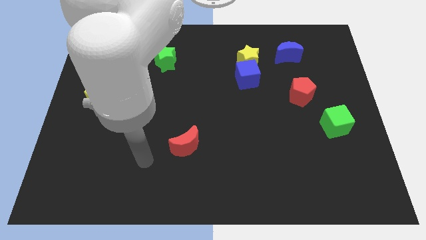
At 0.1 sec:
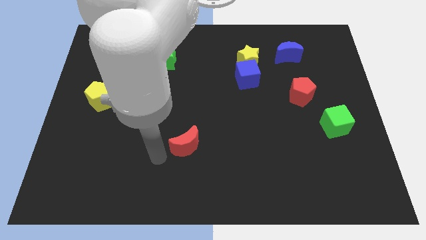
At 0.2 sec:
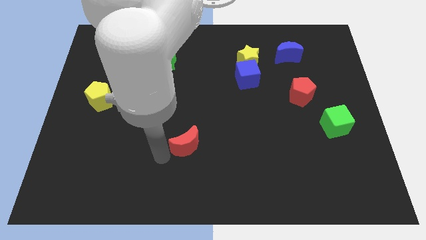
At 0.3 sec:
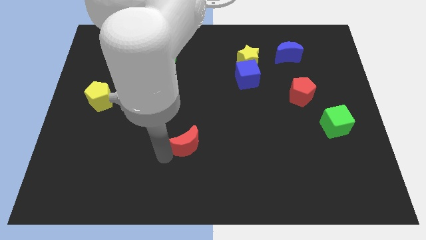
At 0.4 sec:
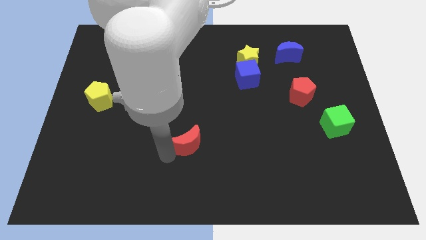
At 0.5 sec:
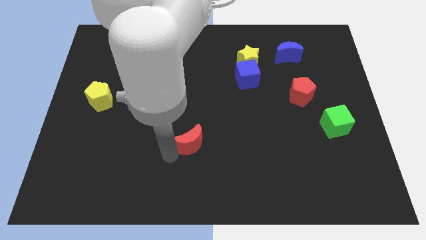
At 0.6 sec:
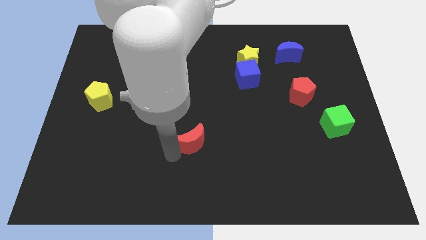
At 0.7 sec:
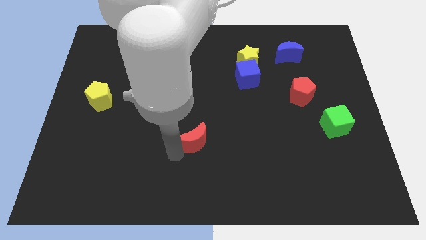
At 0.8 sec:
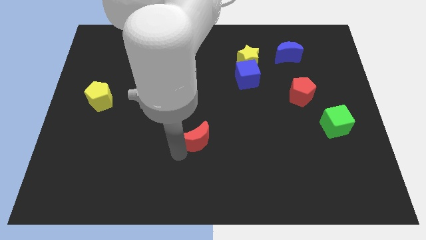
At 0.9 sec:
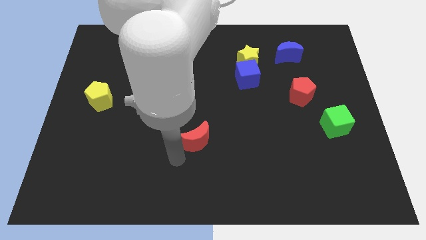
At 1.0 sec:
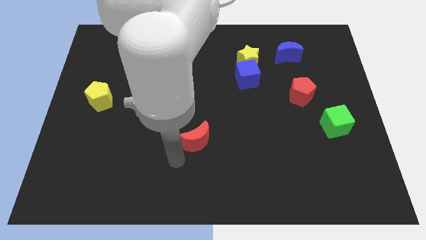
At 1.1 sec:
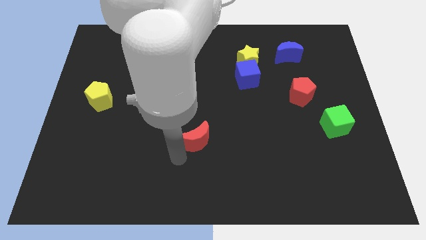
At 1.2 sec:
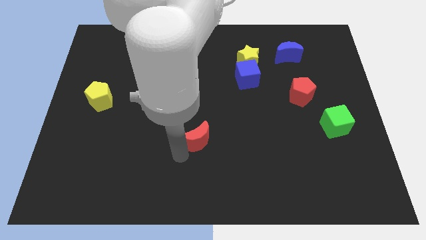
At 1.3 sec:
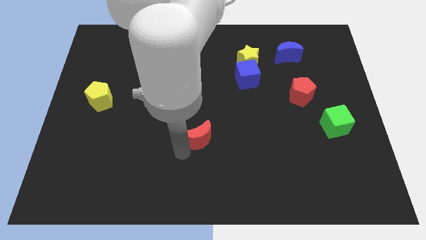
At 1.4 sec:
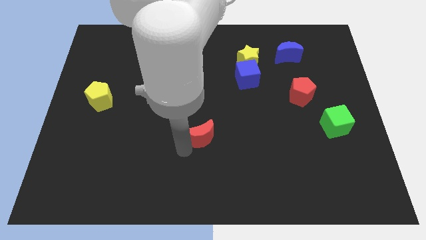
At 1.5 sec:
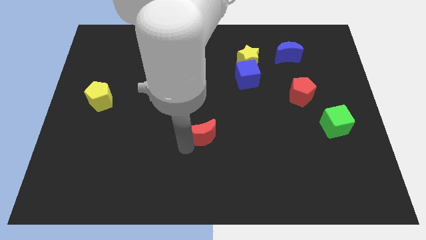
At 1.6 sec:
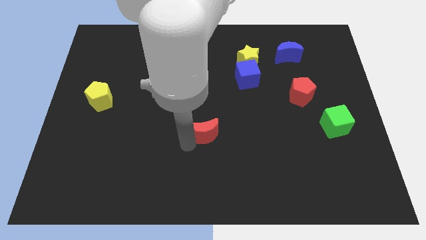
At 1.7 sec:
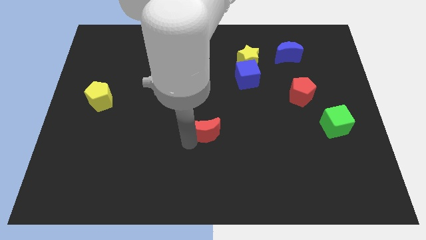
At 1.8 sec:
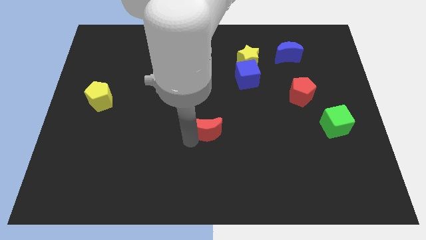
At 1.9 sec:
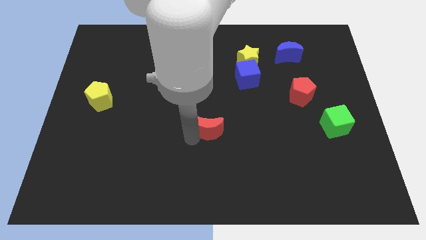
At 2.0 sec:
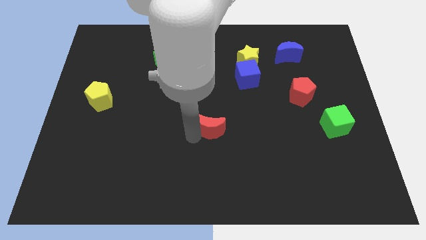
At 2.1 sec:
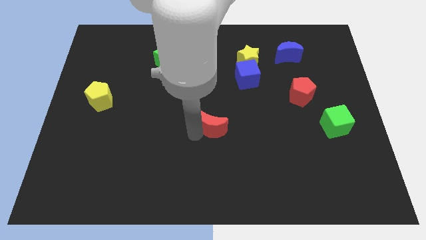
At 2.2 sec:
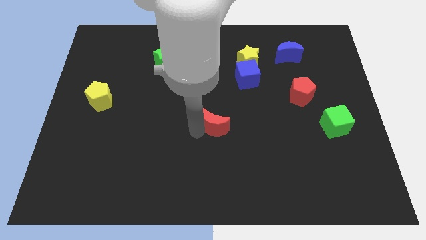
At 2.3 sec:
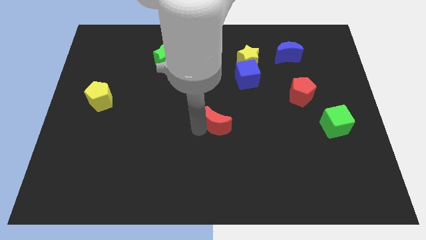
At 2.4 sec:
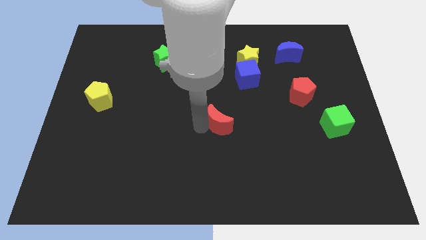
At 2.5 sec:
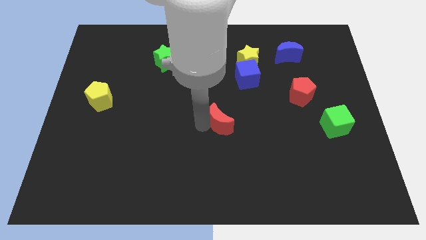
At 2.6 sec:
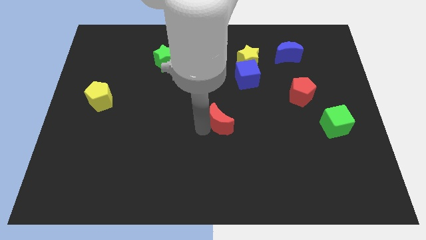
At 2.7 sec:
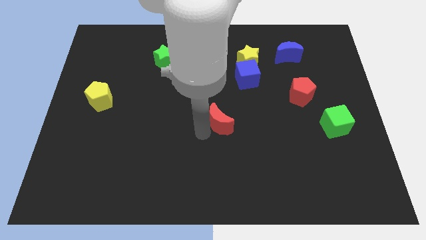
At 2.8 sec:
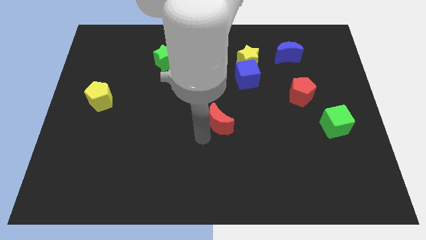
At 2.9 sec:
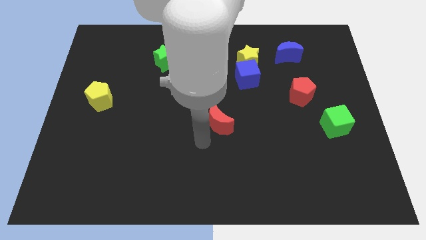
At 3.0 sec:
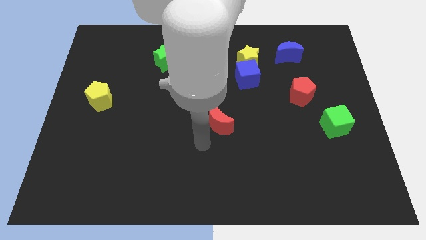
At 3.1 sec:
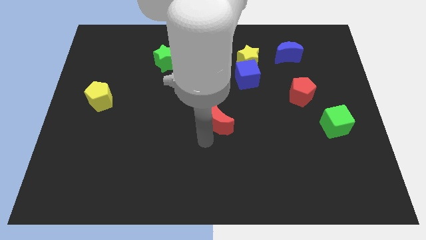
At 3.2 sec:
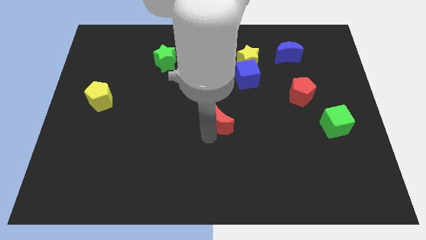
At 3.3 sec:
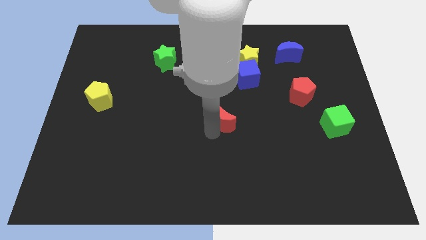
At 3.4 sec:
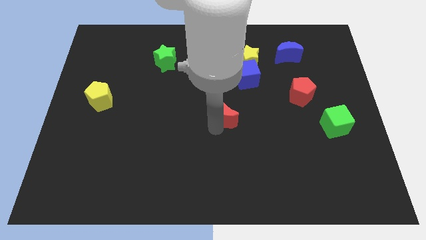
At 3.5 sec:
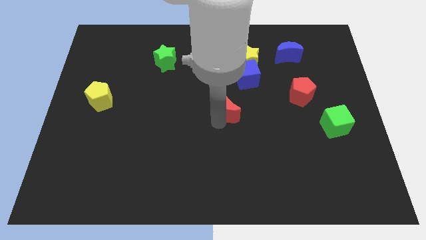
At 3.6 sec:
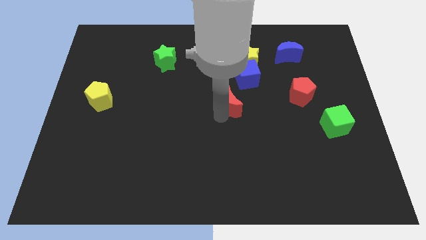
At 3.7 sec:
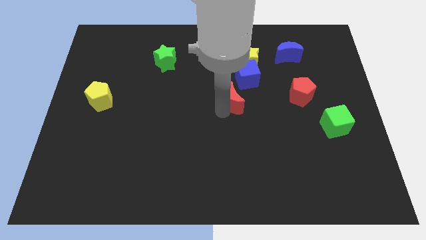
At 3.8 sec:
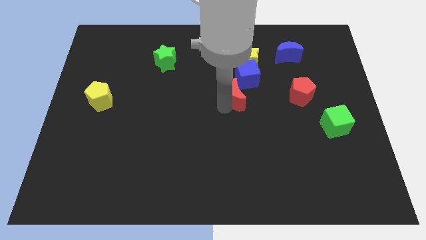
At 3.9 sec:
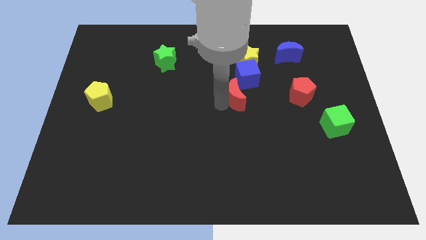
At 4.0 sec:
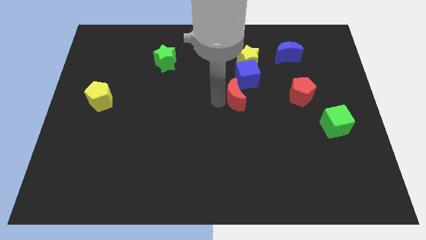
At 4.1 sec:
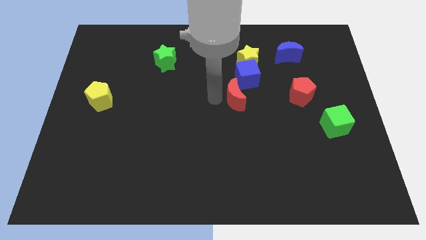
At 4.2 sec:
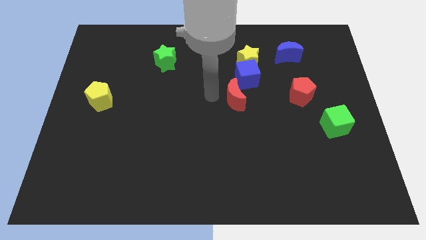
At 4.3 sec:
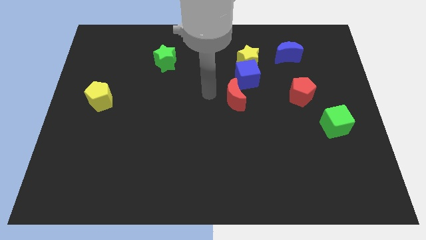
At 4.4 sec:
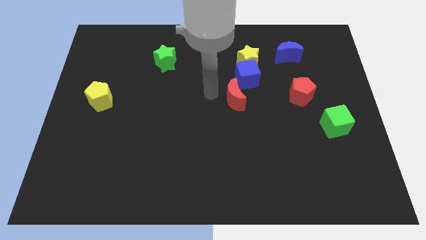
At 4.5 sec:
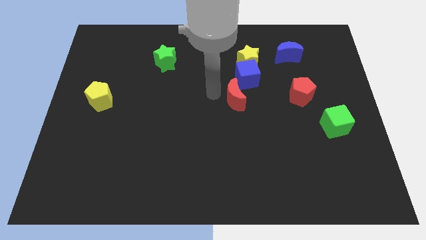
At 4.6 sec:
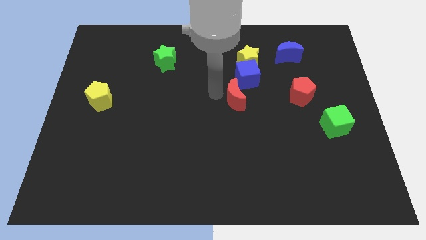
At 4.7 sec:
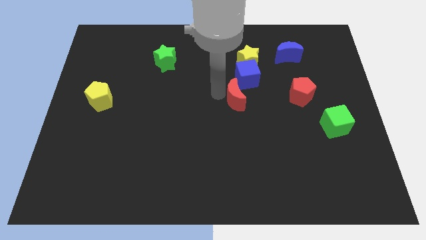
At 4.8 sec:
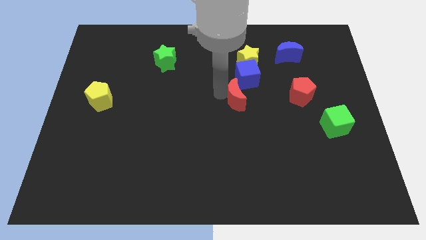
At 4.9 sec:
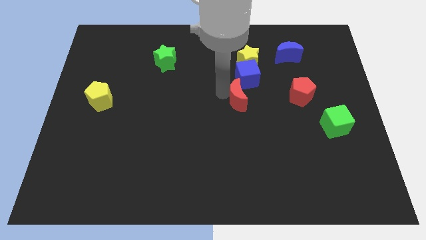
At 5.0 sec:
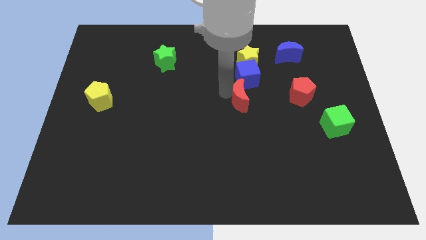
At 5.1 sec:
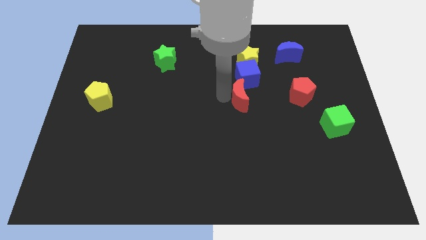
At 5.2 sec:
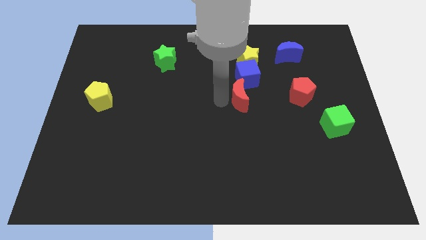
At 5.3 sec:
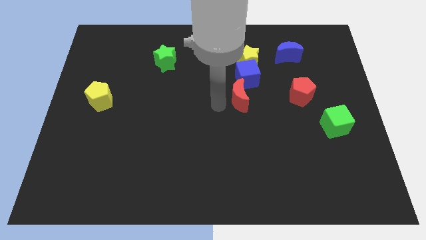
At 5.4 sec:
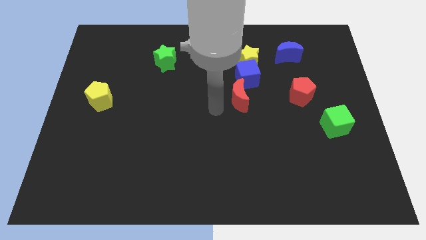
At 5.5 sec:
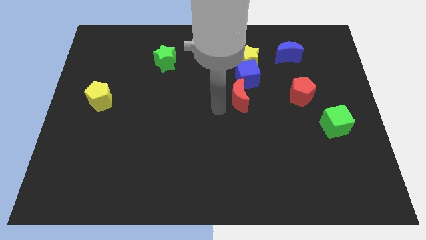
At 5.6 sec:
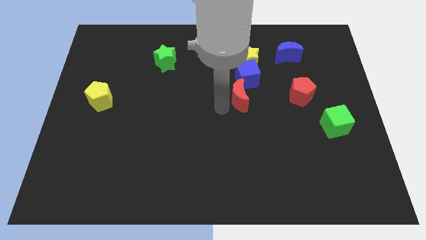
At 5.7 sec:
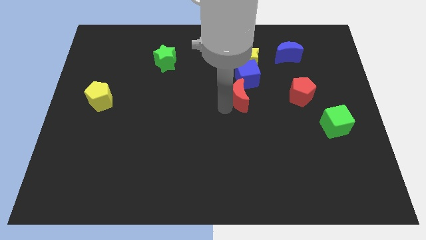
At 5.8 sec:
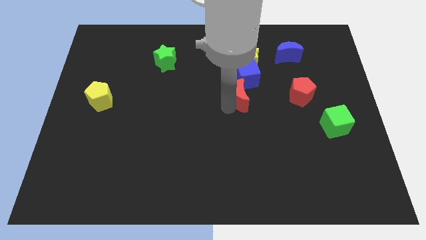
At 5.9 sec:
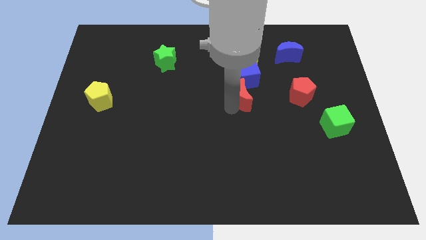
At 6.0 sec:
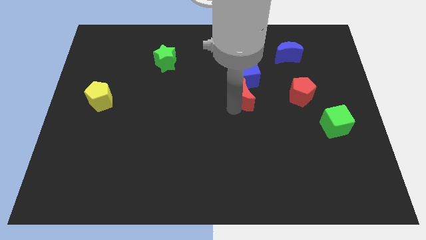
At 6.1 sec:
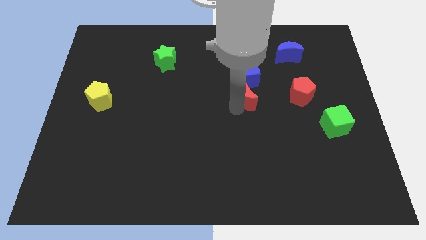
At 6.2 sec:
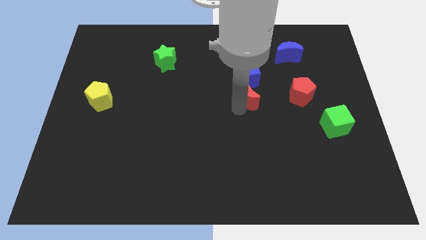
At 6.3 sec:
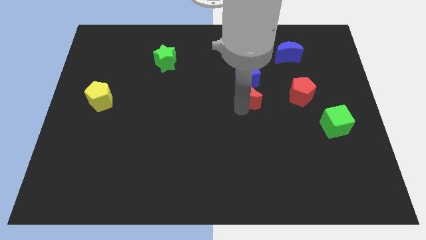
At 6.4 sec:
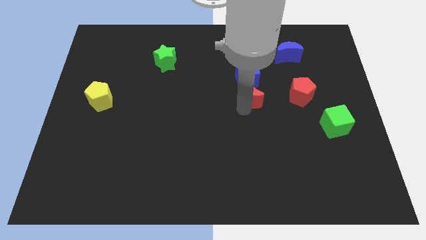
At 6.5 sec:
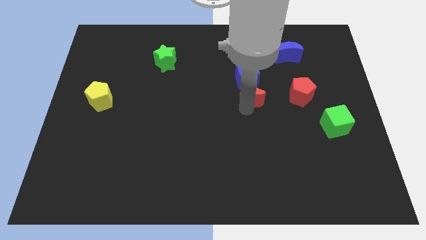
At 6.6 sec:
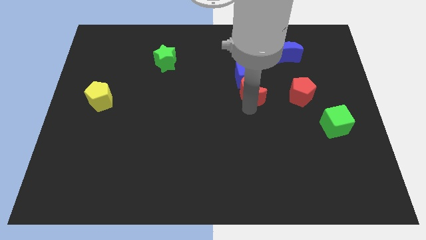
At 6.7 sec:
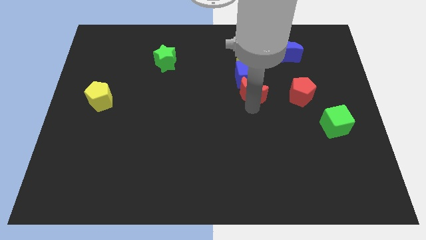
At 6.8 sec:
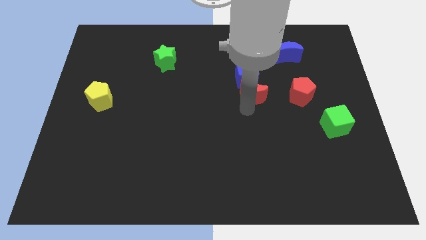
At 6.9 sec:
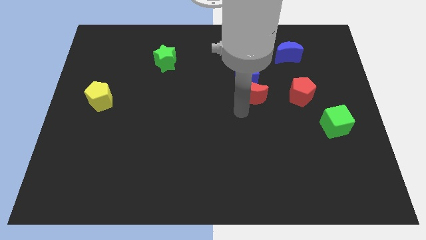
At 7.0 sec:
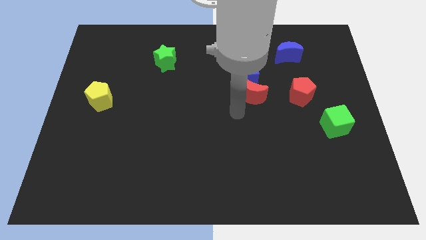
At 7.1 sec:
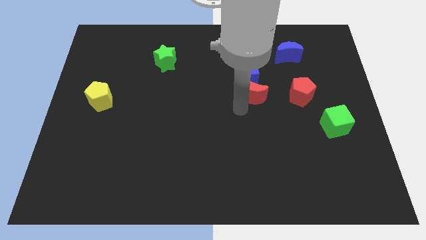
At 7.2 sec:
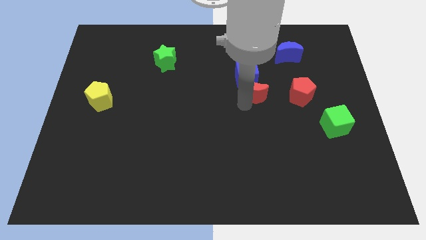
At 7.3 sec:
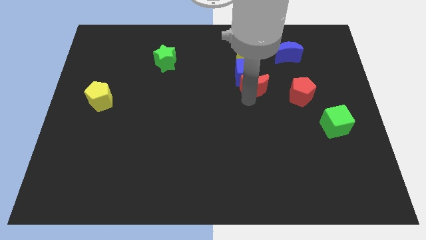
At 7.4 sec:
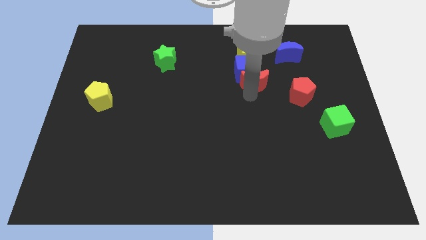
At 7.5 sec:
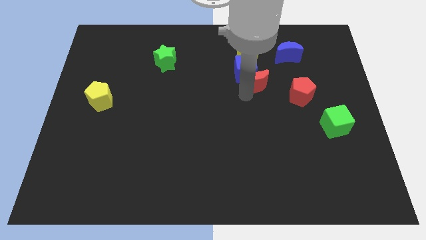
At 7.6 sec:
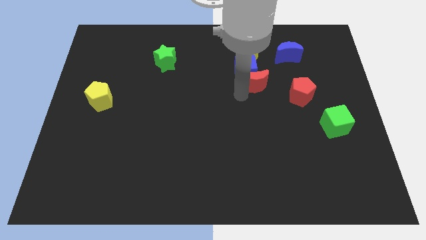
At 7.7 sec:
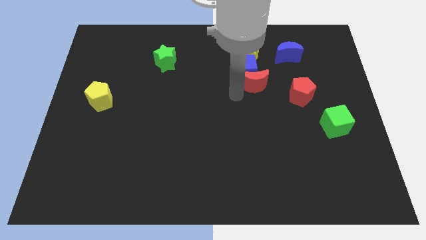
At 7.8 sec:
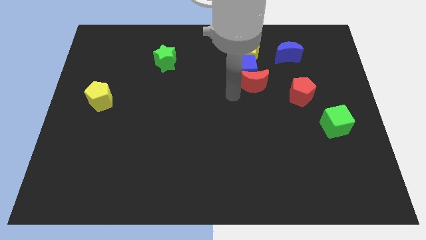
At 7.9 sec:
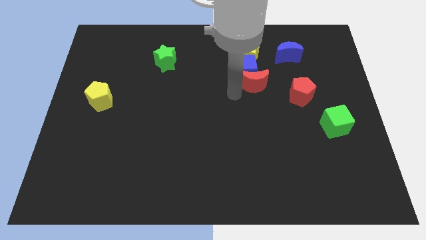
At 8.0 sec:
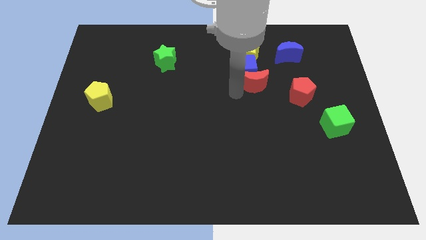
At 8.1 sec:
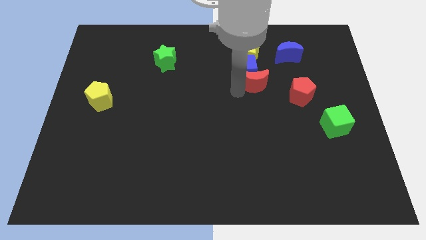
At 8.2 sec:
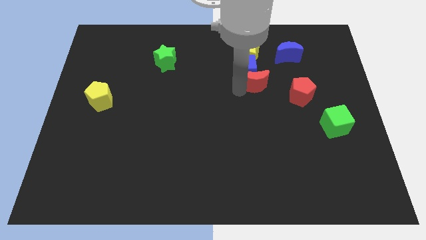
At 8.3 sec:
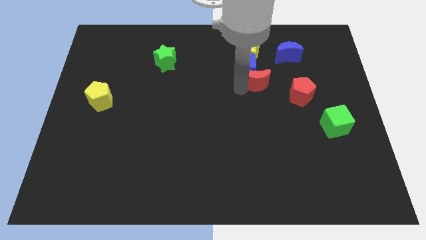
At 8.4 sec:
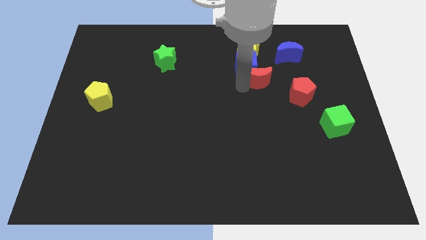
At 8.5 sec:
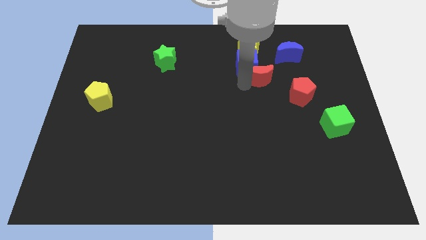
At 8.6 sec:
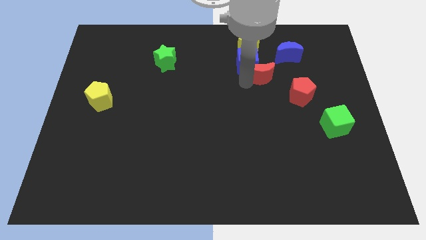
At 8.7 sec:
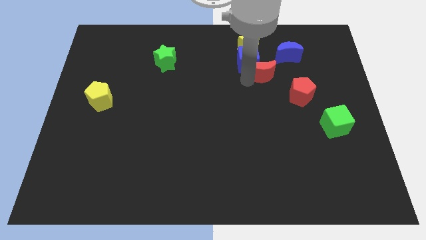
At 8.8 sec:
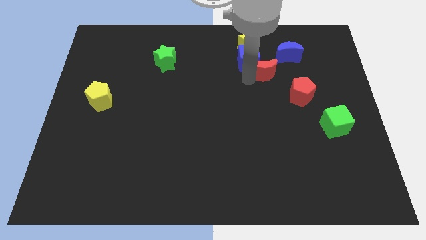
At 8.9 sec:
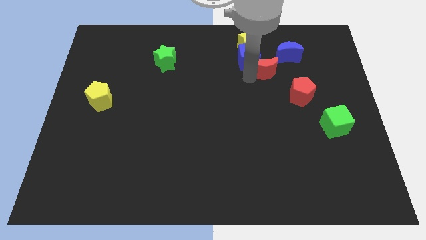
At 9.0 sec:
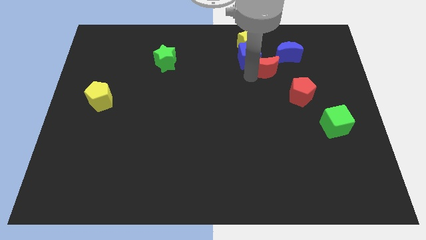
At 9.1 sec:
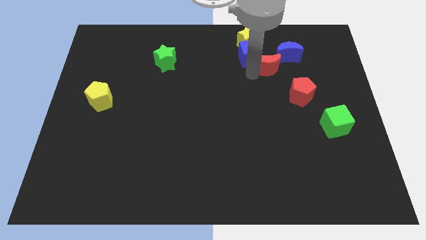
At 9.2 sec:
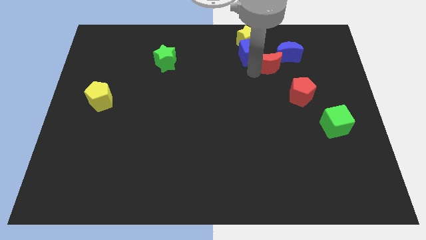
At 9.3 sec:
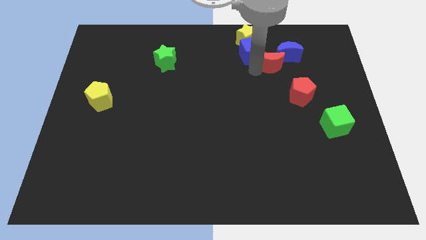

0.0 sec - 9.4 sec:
slide the red moon to the blue moon
